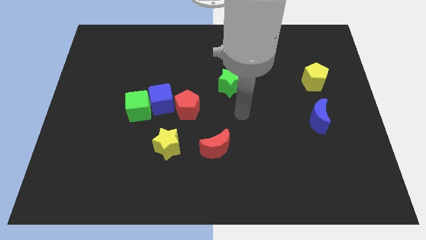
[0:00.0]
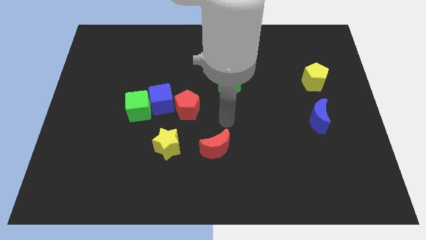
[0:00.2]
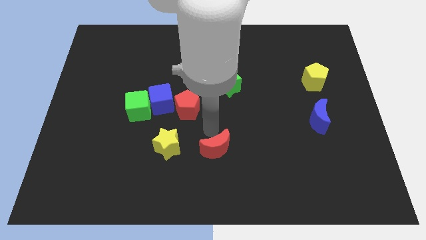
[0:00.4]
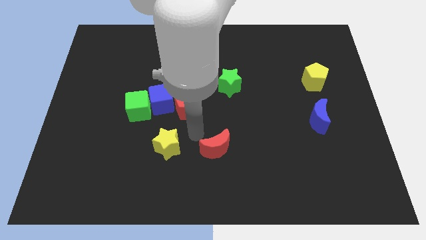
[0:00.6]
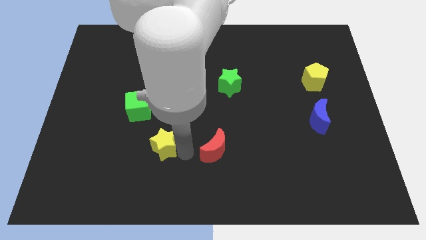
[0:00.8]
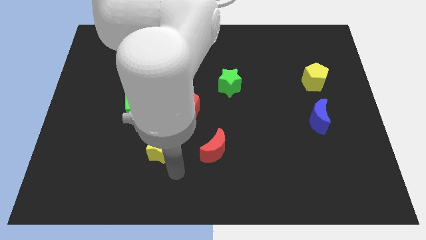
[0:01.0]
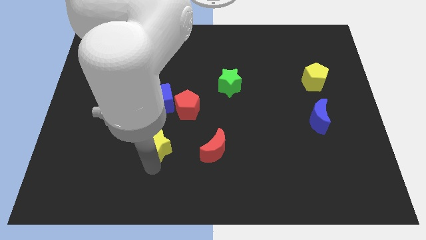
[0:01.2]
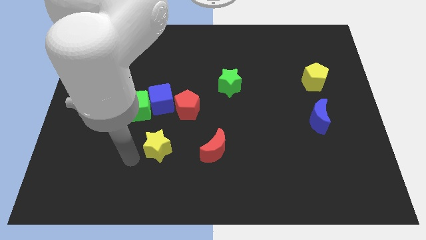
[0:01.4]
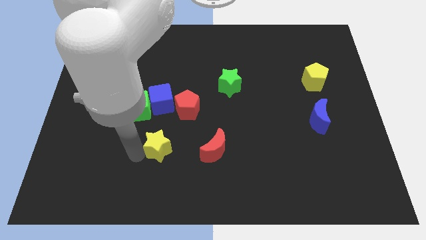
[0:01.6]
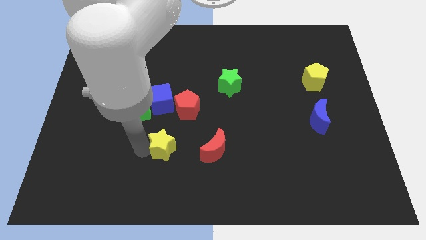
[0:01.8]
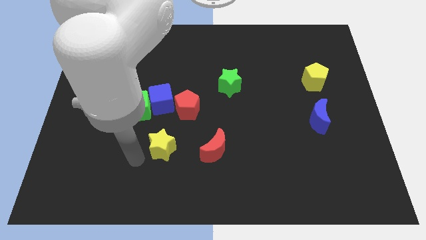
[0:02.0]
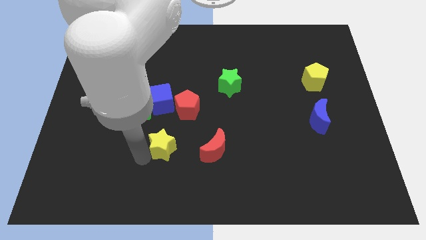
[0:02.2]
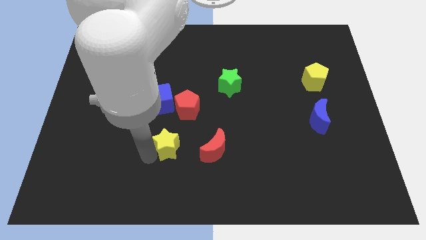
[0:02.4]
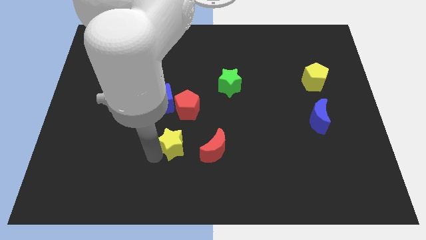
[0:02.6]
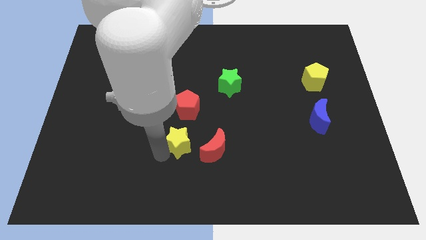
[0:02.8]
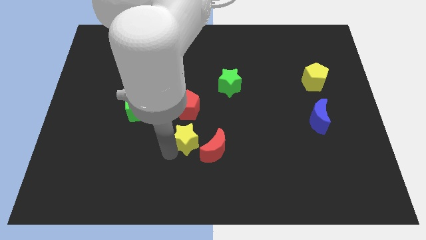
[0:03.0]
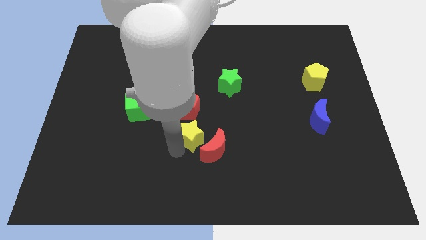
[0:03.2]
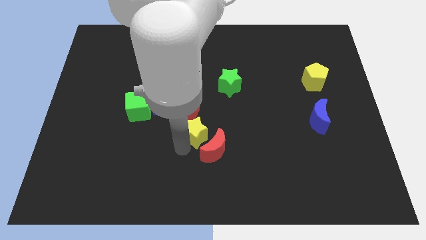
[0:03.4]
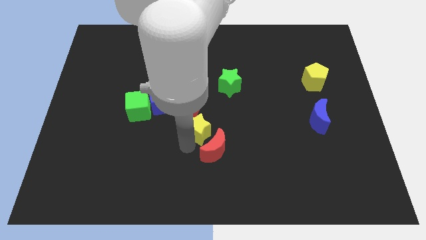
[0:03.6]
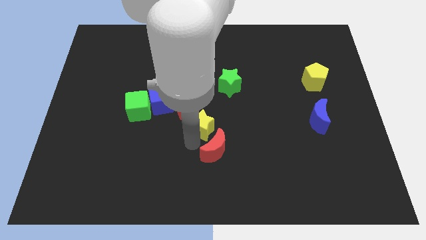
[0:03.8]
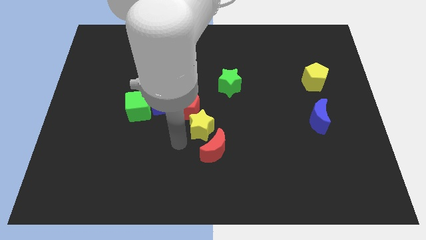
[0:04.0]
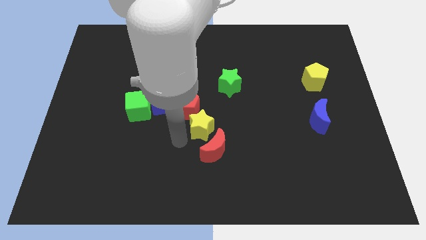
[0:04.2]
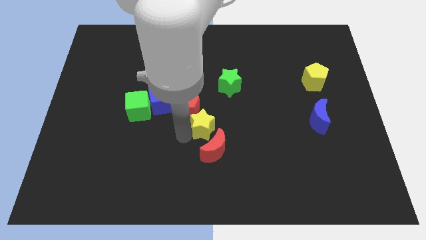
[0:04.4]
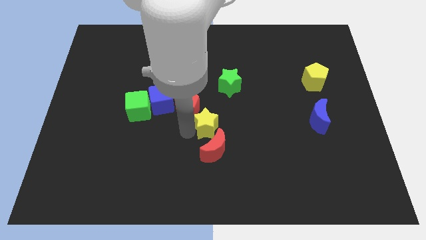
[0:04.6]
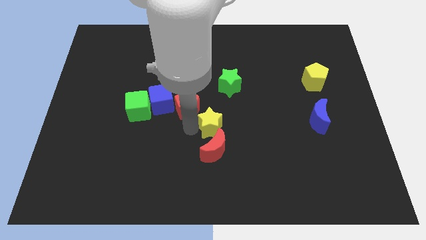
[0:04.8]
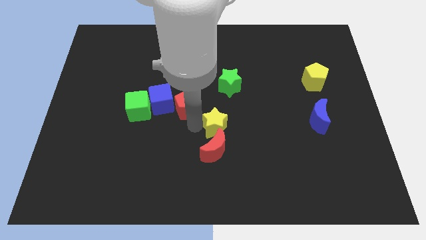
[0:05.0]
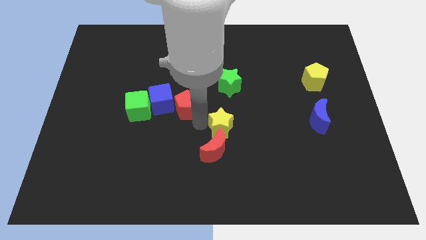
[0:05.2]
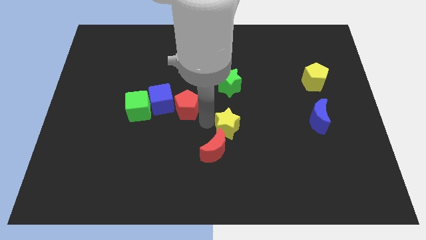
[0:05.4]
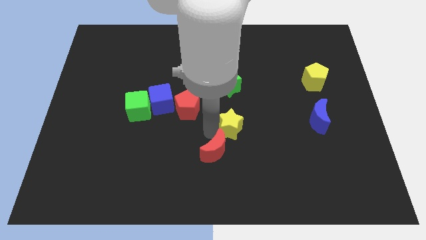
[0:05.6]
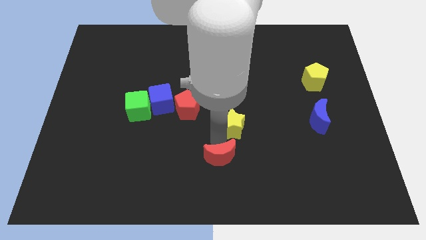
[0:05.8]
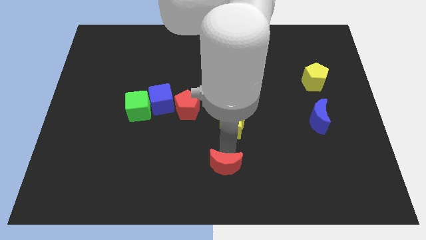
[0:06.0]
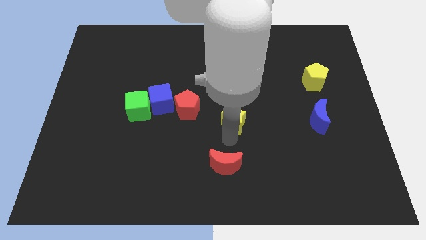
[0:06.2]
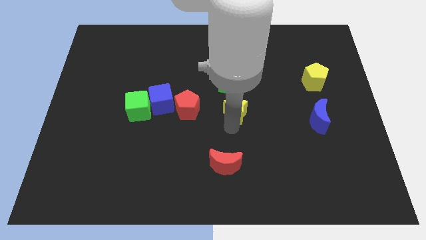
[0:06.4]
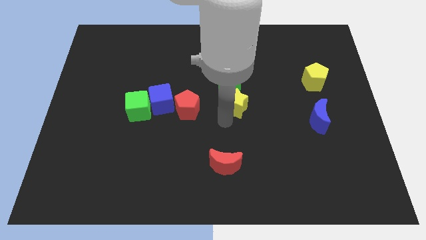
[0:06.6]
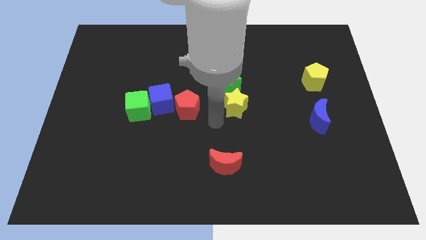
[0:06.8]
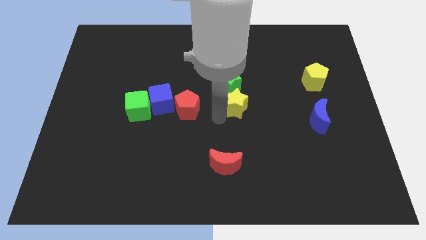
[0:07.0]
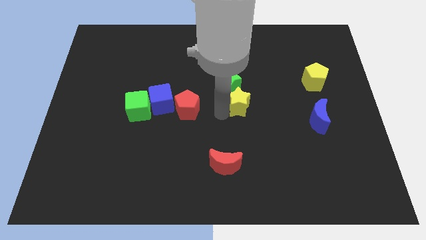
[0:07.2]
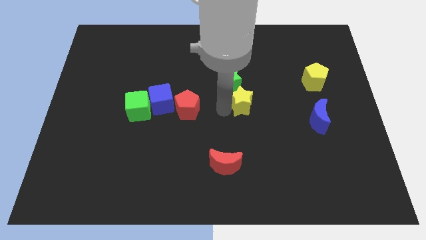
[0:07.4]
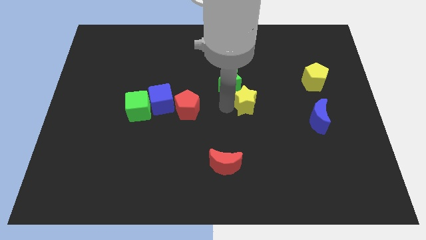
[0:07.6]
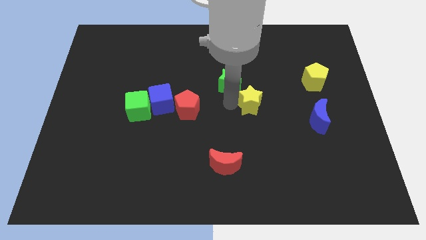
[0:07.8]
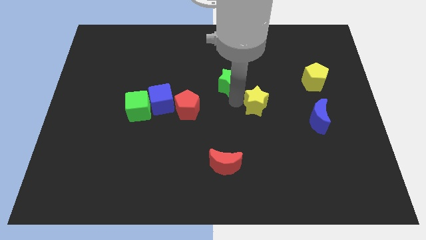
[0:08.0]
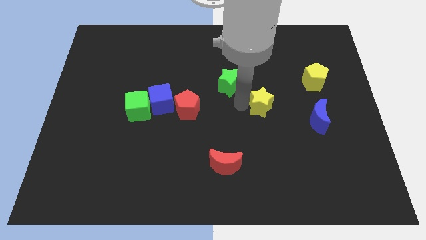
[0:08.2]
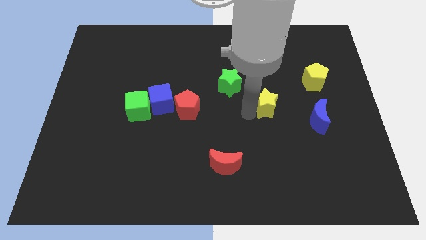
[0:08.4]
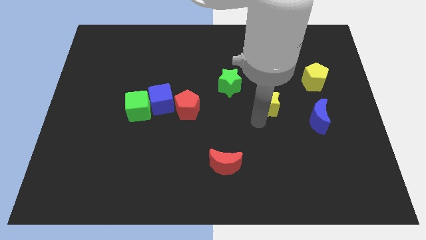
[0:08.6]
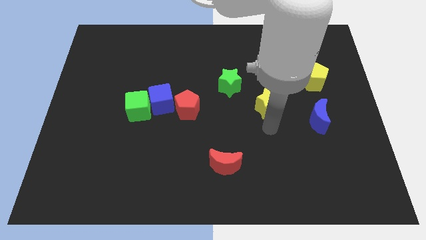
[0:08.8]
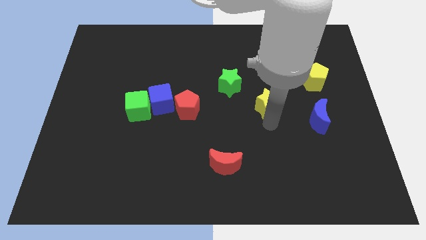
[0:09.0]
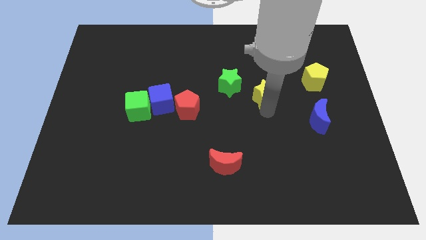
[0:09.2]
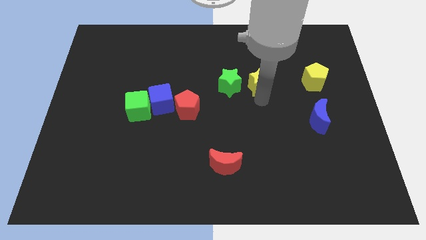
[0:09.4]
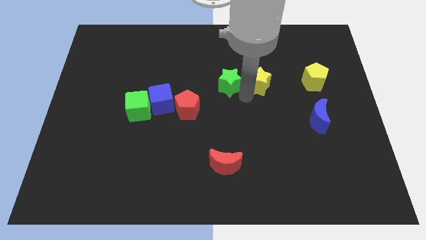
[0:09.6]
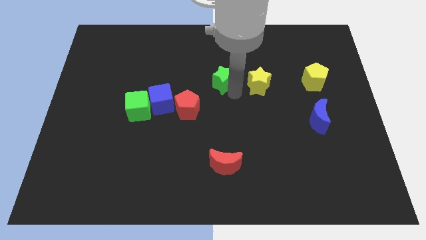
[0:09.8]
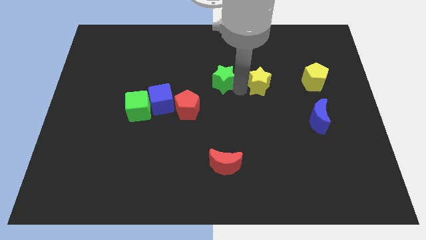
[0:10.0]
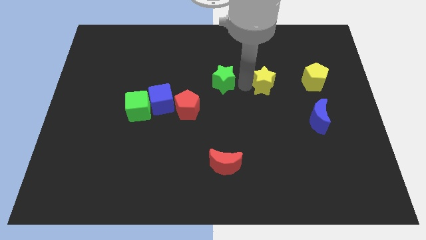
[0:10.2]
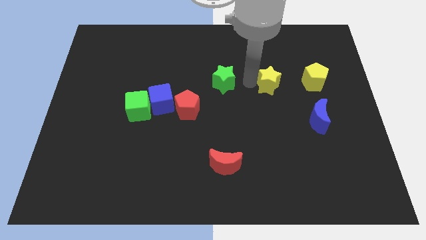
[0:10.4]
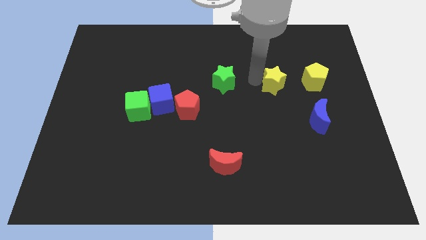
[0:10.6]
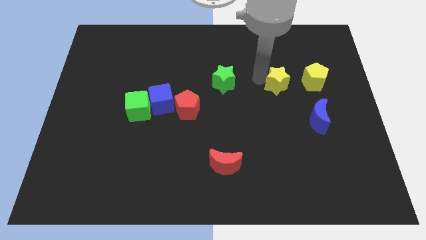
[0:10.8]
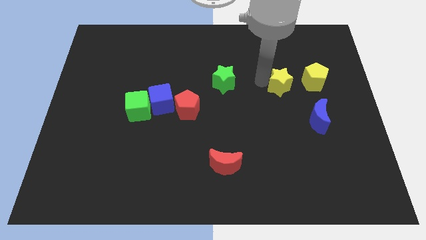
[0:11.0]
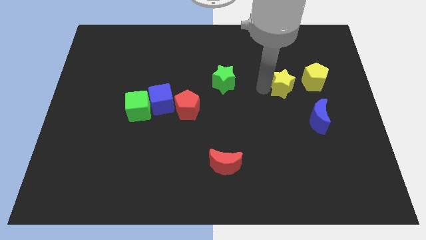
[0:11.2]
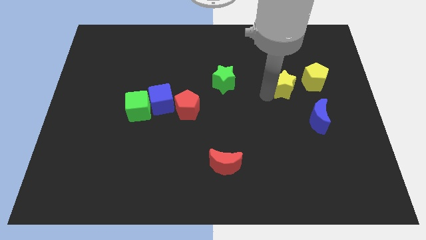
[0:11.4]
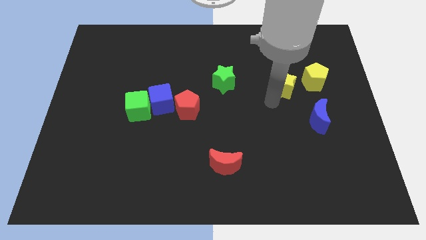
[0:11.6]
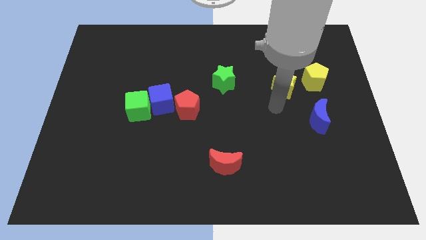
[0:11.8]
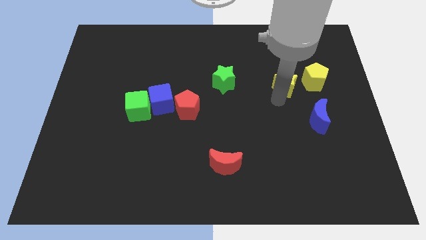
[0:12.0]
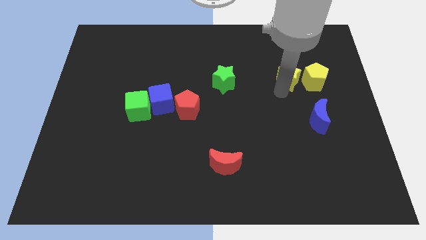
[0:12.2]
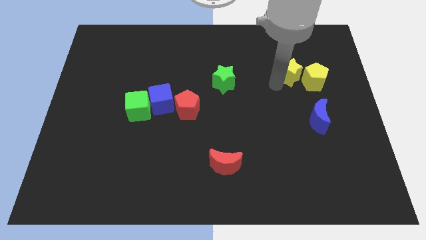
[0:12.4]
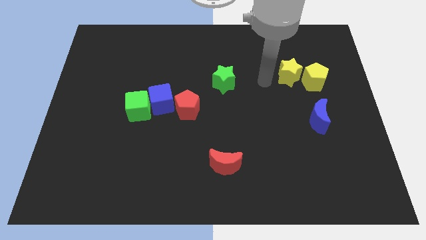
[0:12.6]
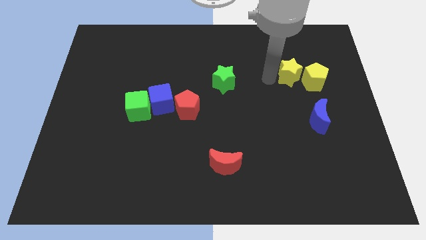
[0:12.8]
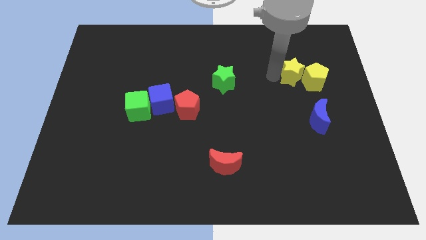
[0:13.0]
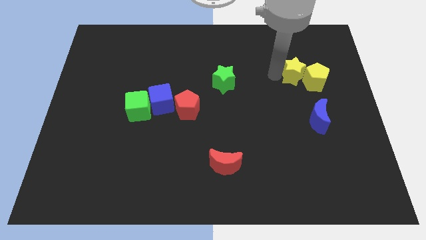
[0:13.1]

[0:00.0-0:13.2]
put the yellow star to the top side of the blue moon

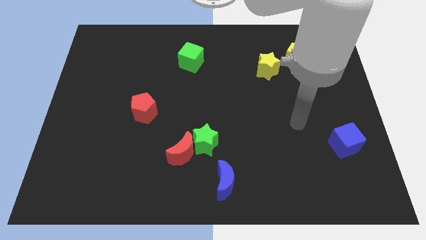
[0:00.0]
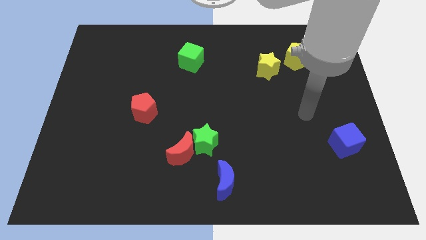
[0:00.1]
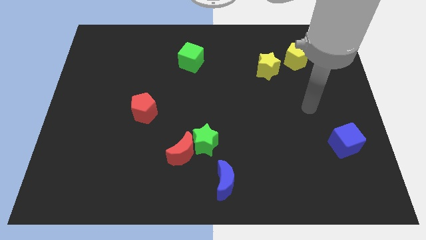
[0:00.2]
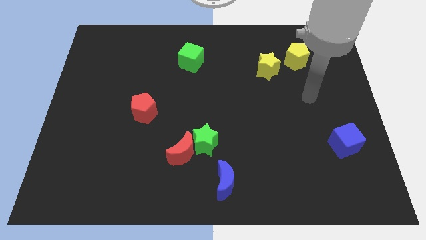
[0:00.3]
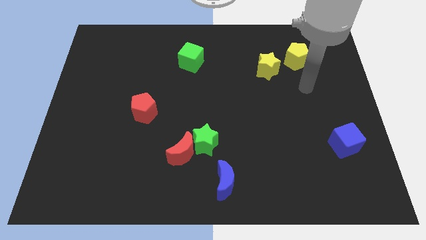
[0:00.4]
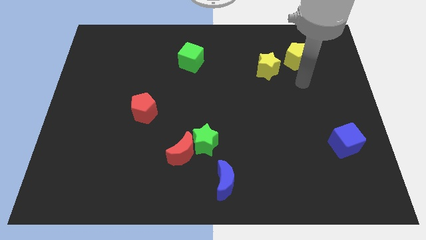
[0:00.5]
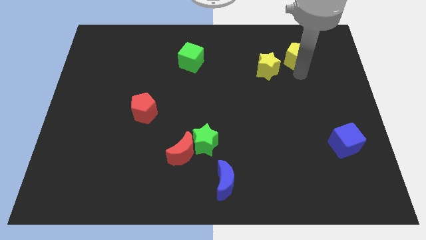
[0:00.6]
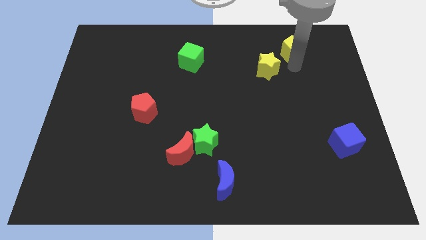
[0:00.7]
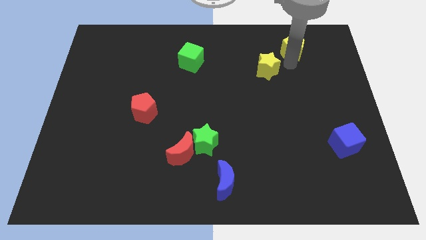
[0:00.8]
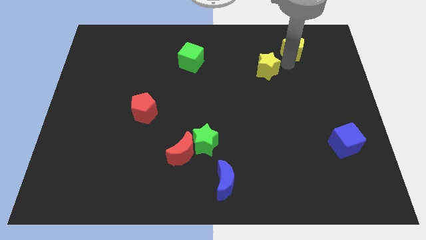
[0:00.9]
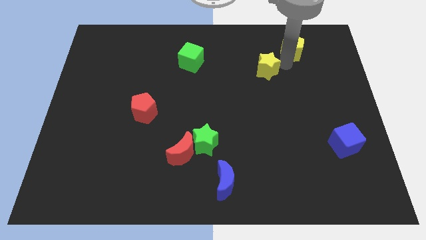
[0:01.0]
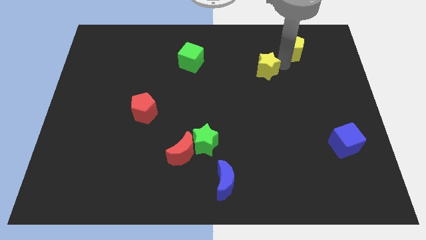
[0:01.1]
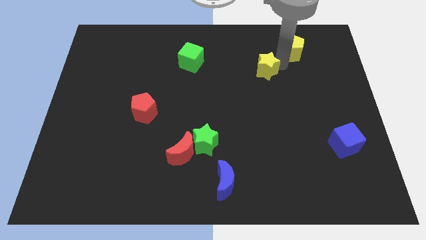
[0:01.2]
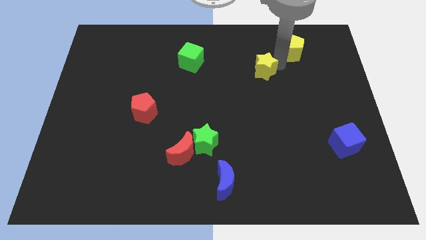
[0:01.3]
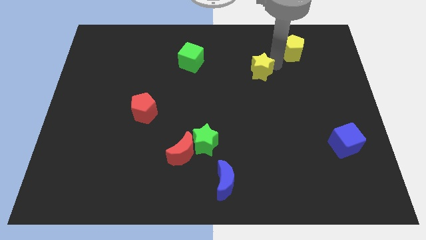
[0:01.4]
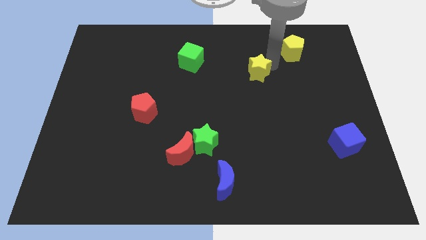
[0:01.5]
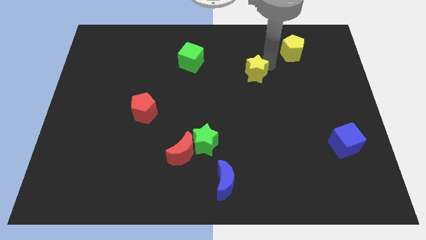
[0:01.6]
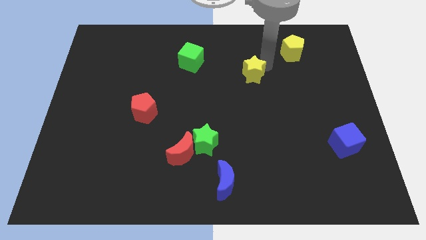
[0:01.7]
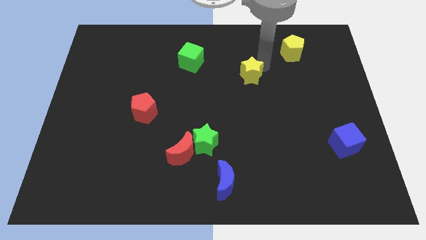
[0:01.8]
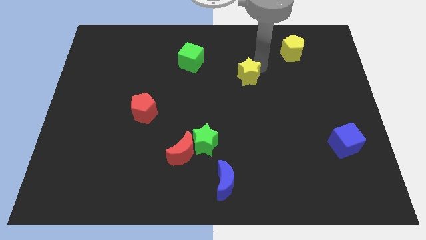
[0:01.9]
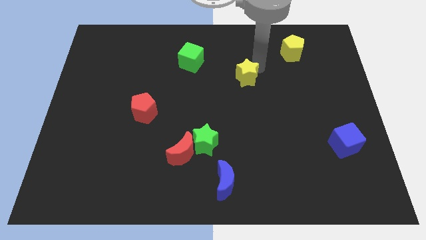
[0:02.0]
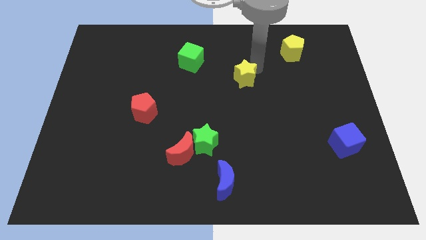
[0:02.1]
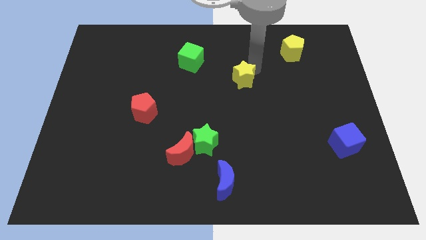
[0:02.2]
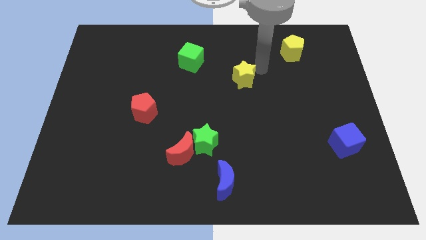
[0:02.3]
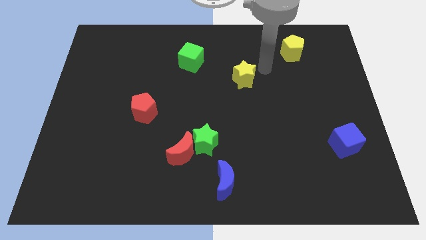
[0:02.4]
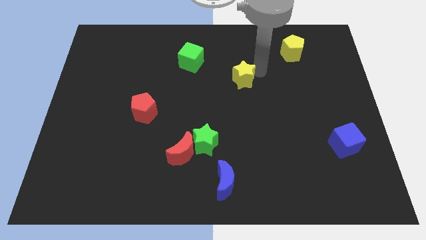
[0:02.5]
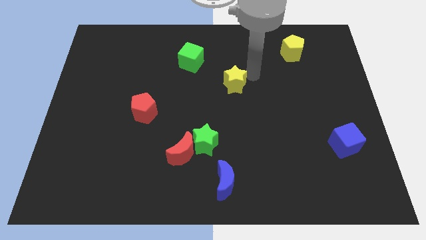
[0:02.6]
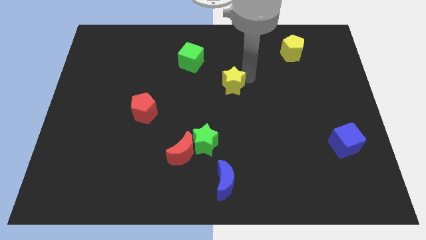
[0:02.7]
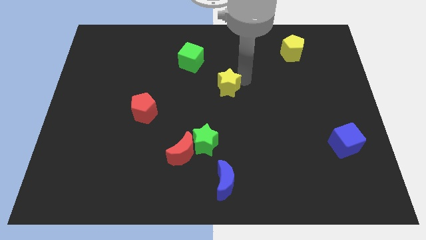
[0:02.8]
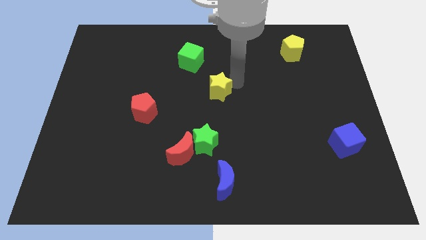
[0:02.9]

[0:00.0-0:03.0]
put the yellow star above the green star
